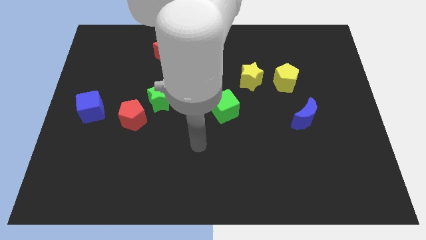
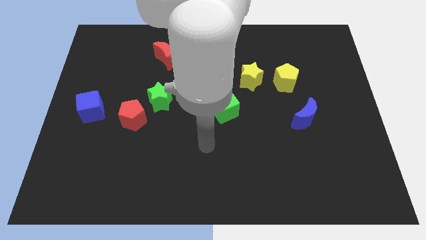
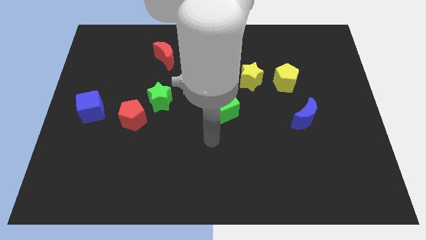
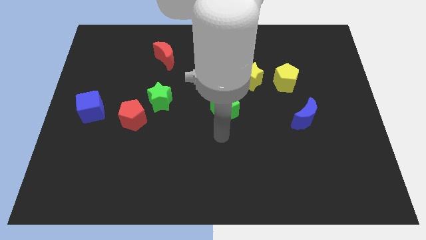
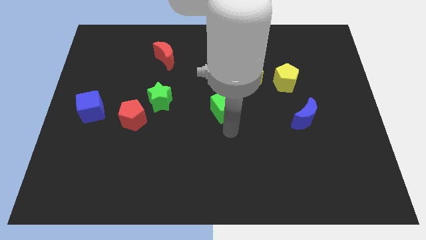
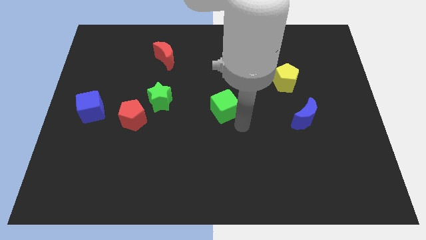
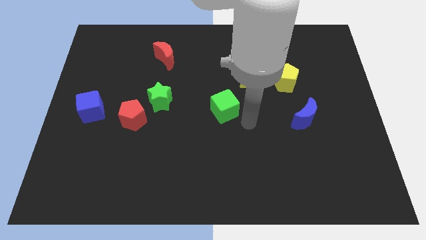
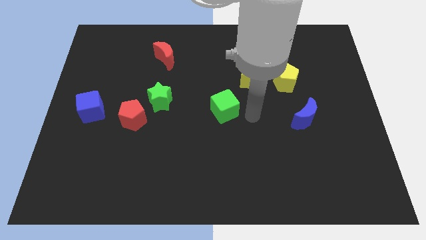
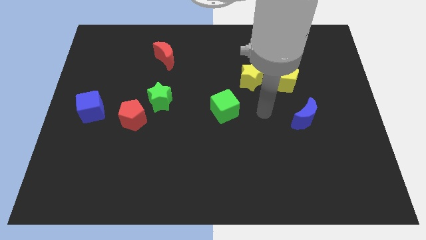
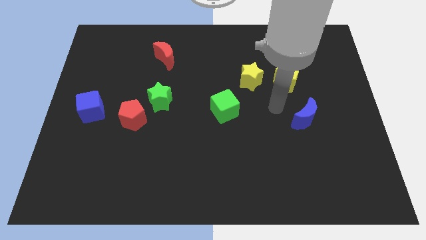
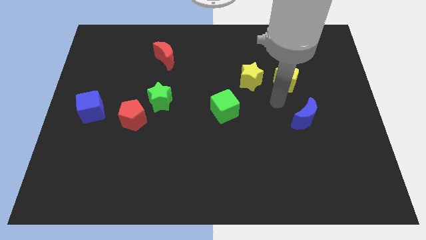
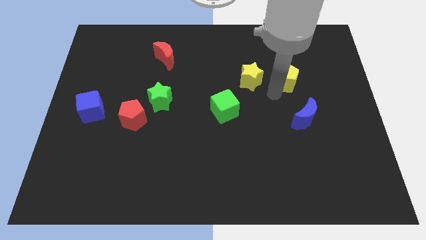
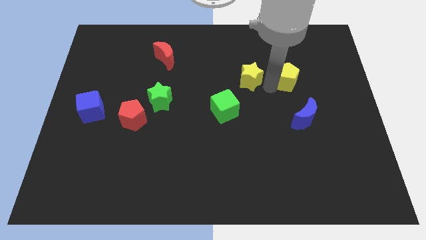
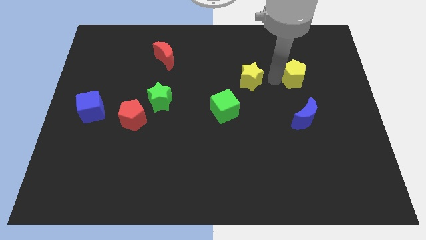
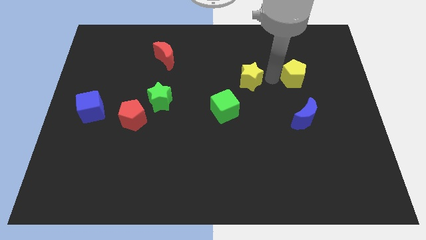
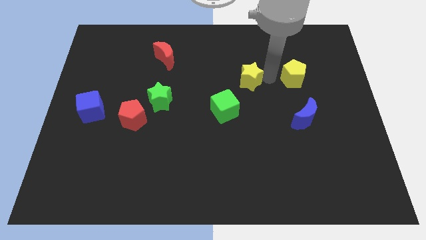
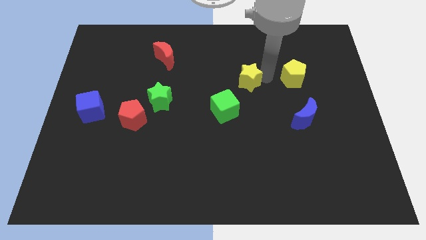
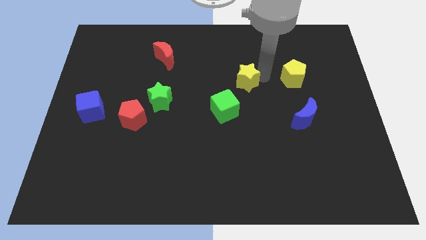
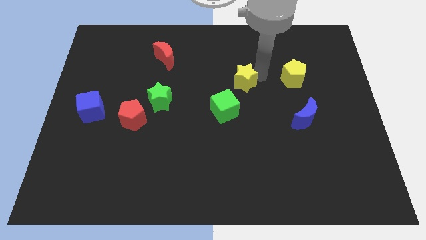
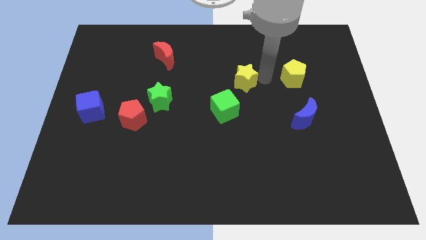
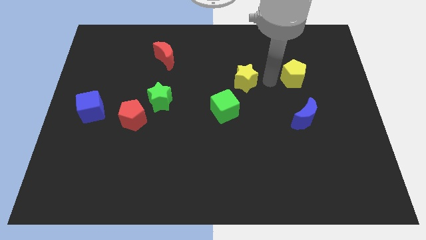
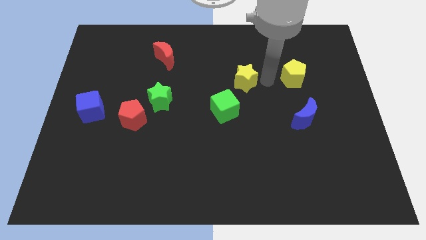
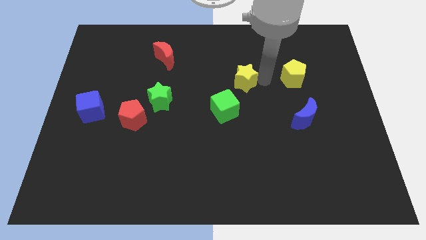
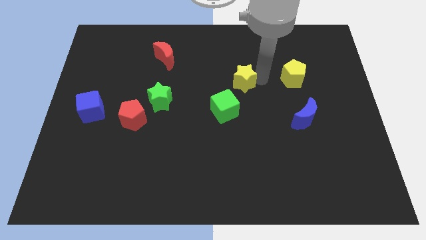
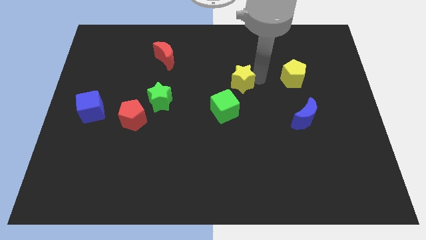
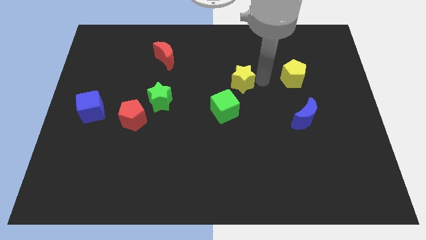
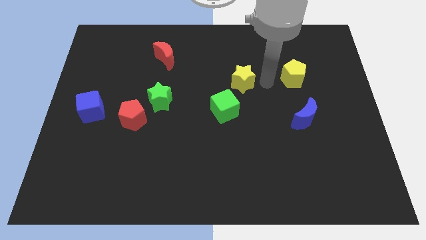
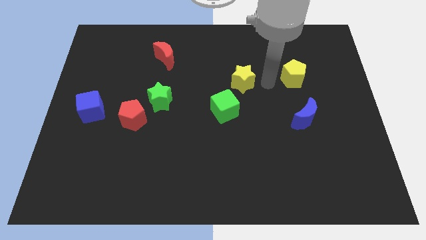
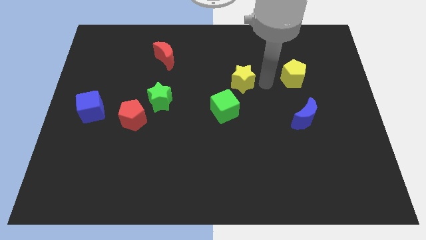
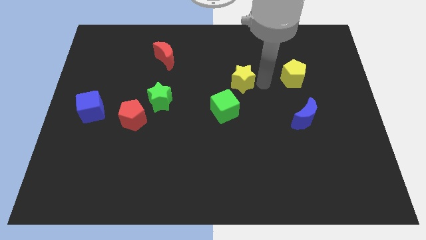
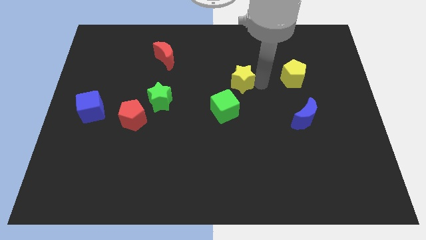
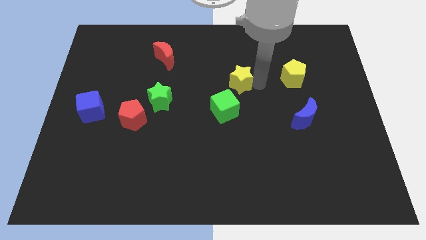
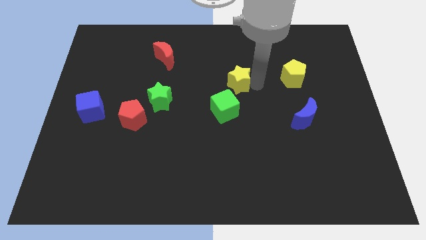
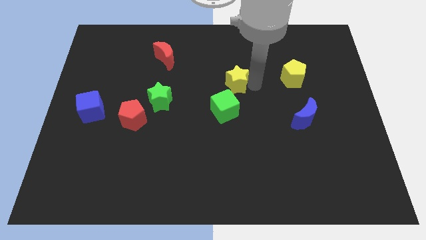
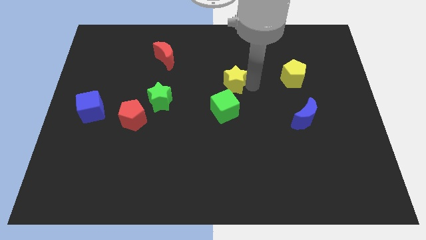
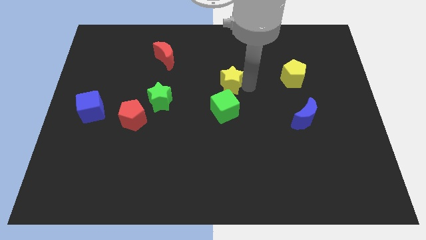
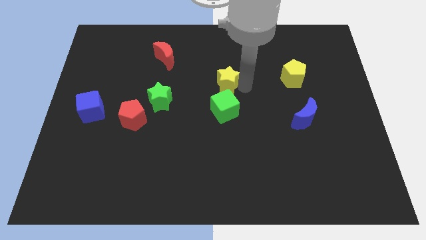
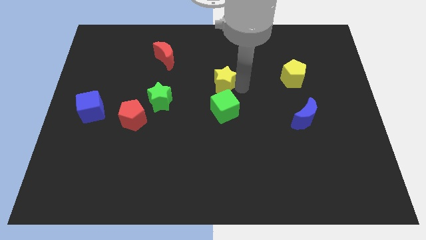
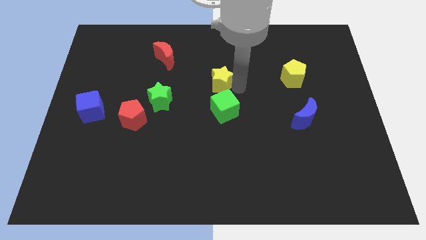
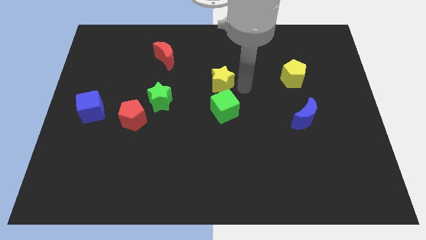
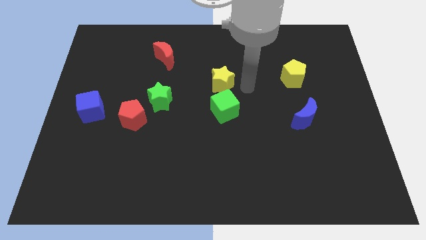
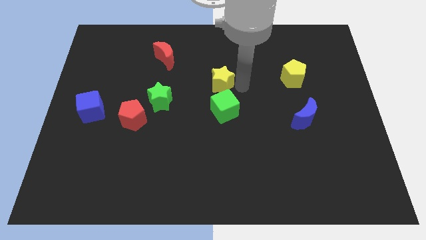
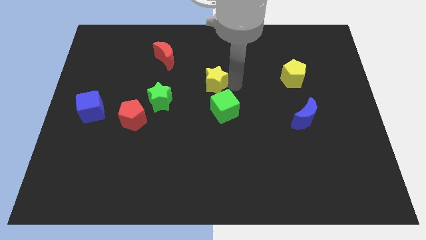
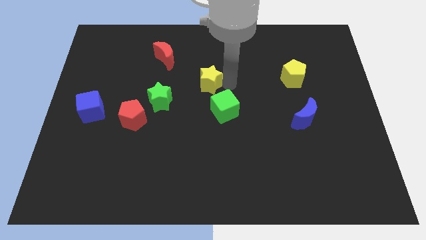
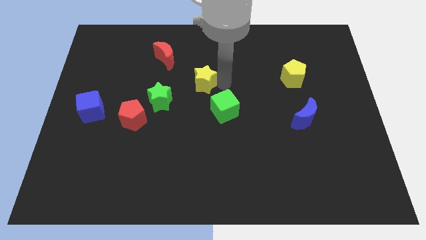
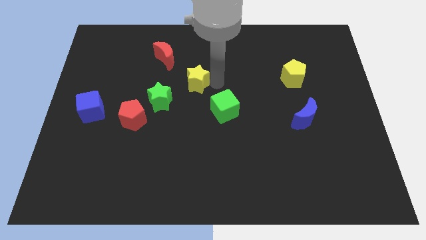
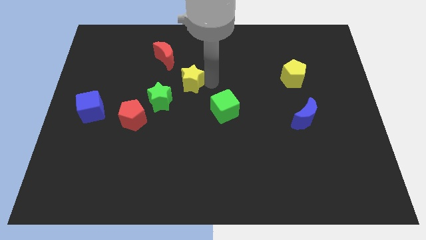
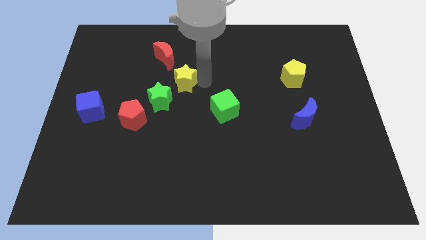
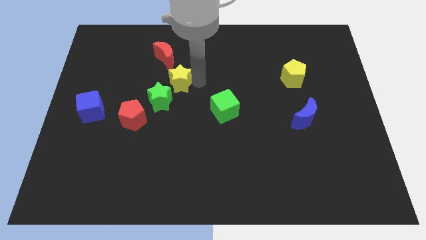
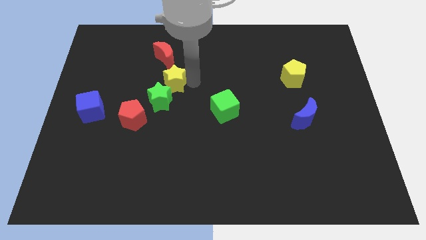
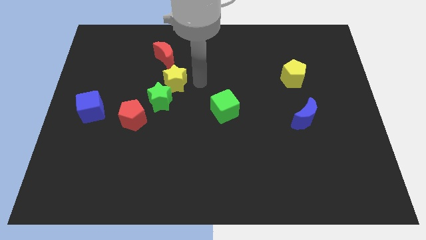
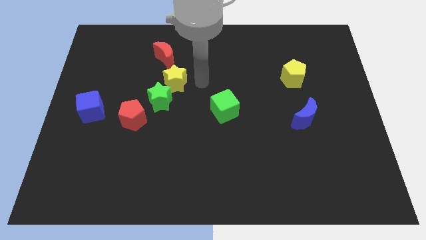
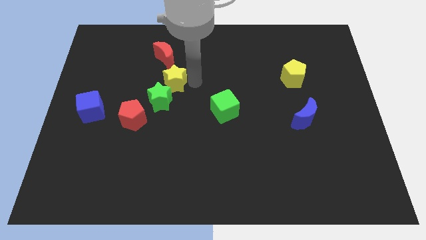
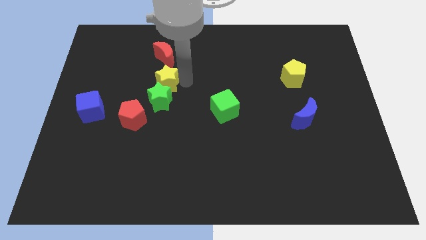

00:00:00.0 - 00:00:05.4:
slide the yellow star left

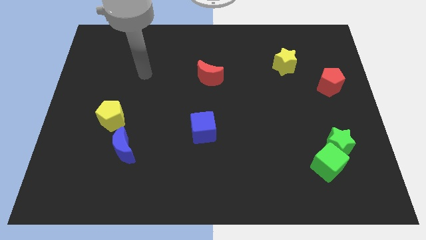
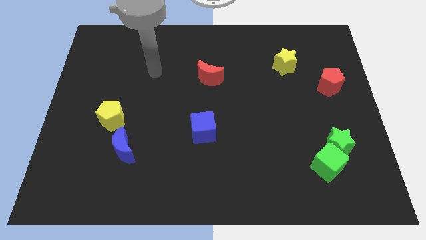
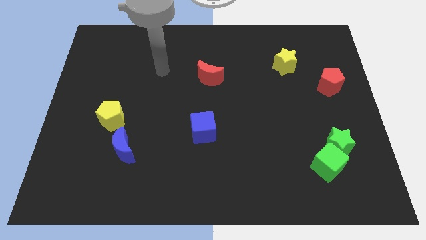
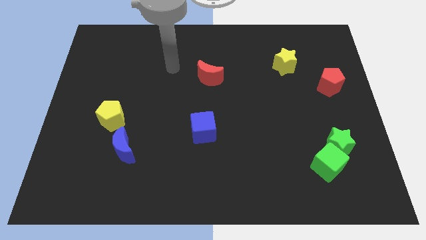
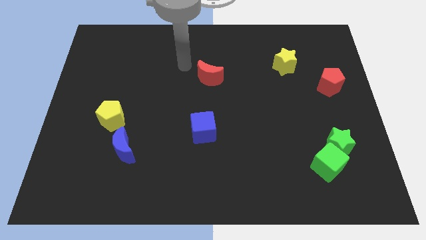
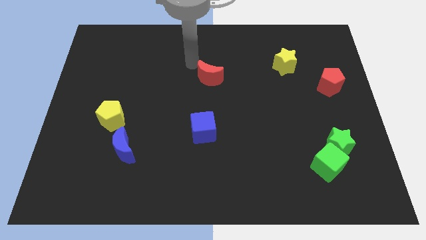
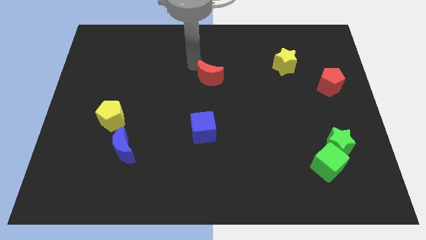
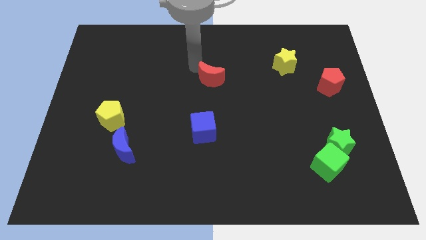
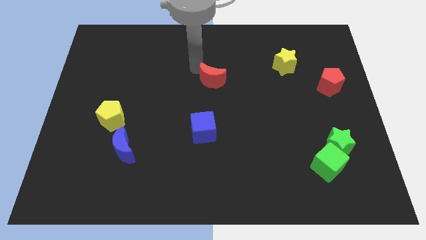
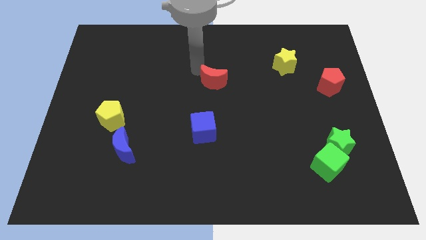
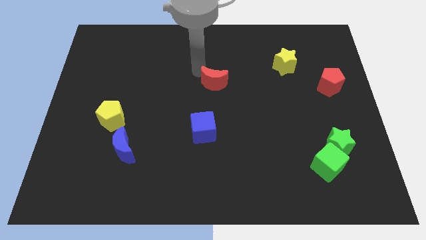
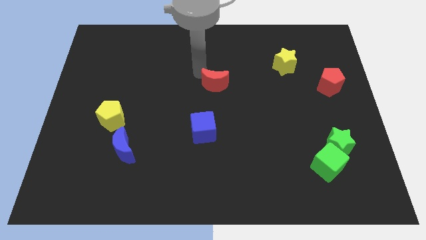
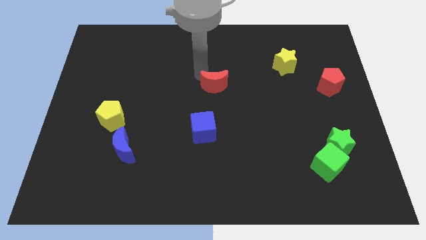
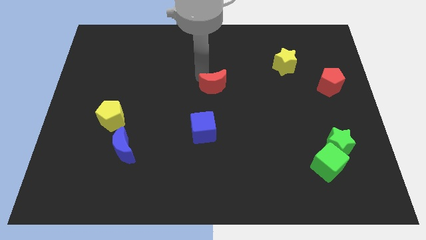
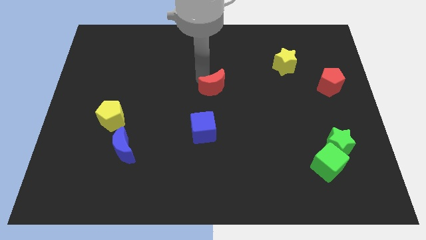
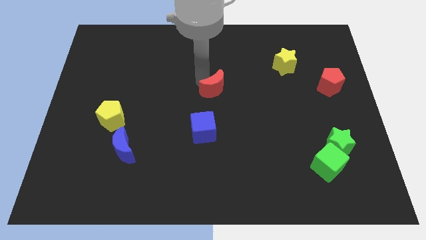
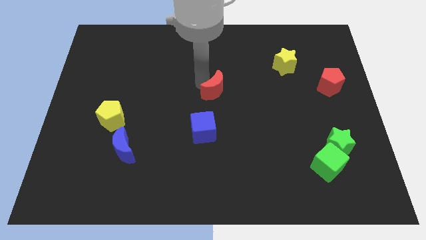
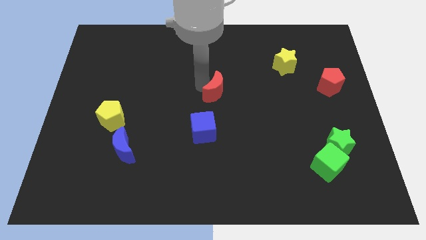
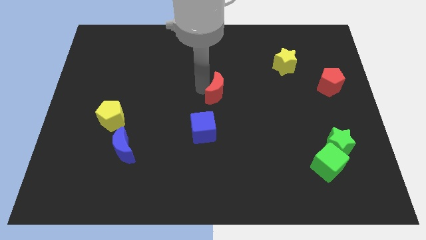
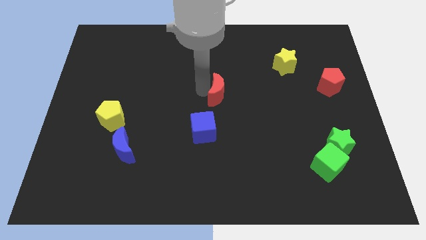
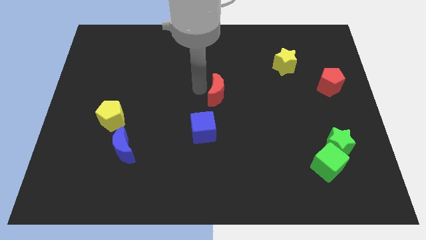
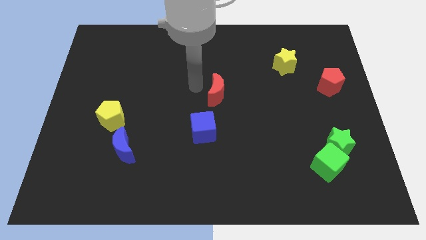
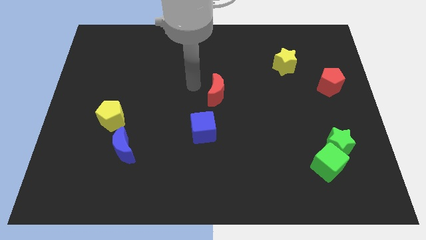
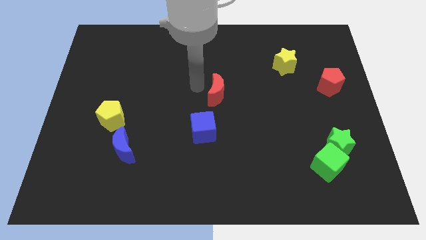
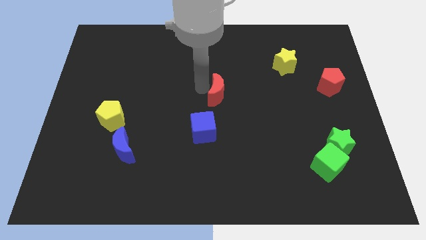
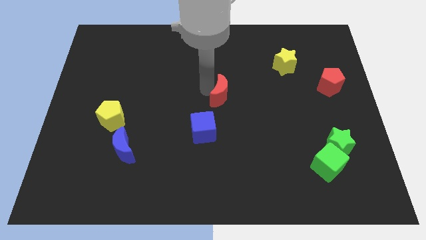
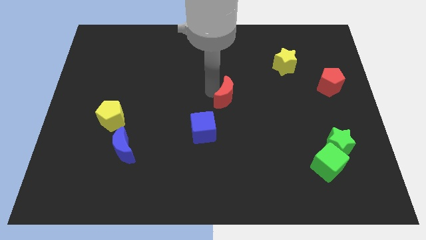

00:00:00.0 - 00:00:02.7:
slide the red moon slightly down and to the right
